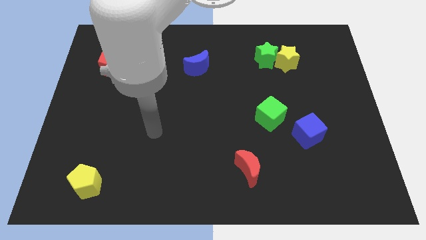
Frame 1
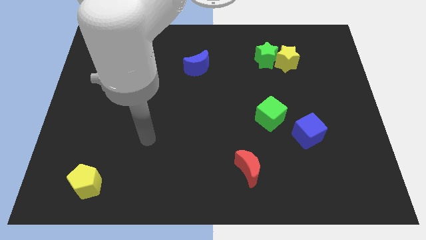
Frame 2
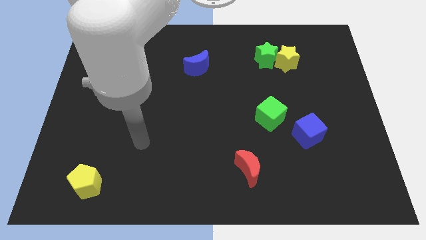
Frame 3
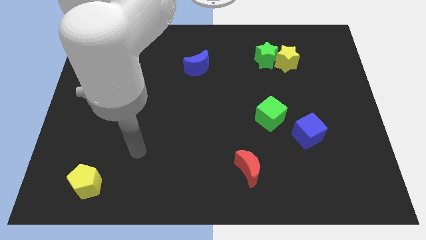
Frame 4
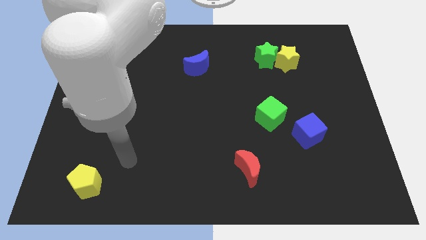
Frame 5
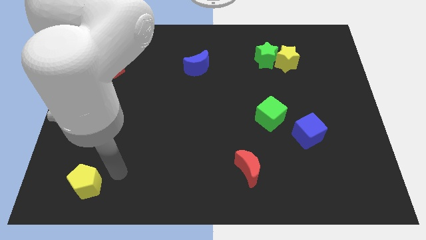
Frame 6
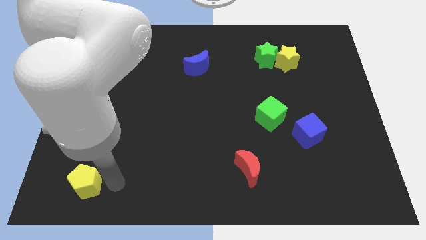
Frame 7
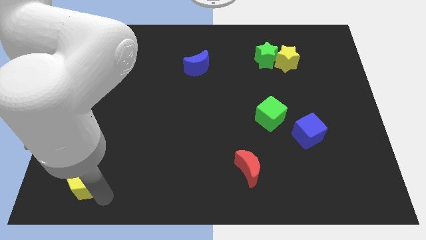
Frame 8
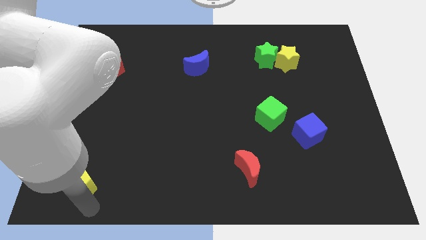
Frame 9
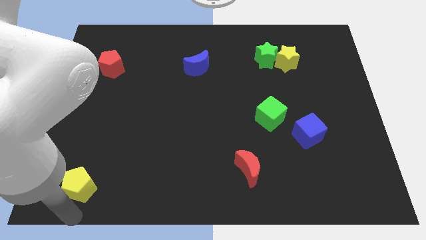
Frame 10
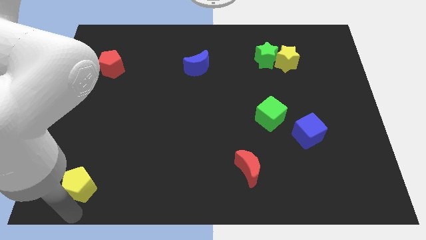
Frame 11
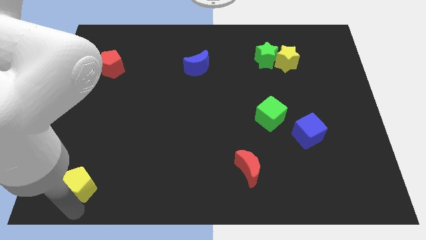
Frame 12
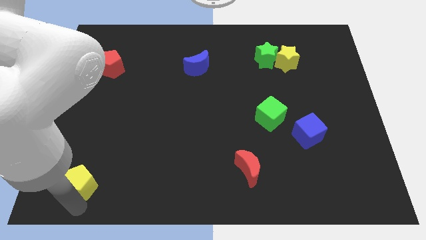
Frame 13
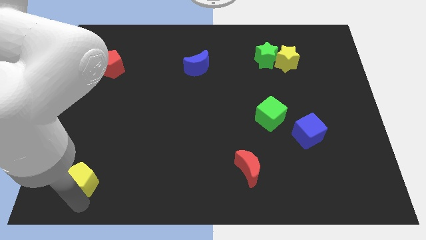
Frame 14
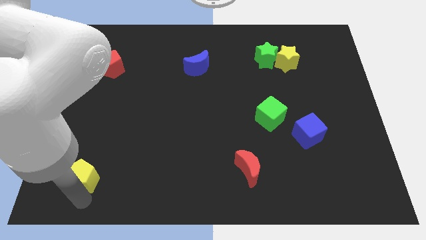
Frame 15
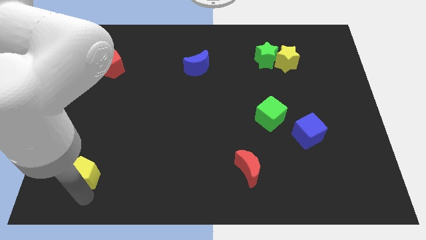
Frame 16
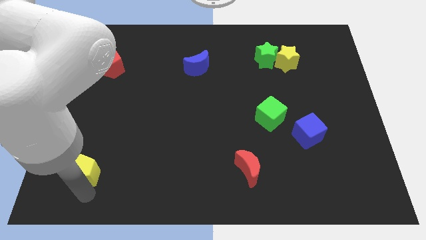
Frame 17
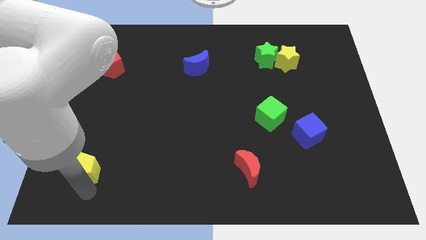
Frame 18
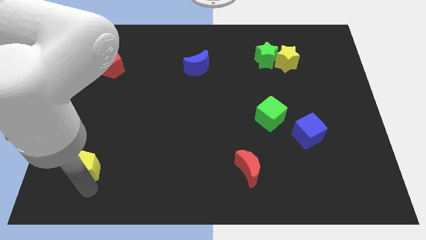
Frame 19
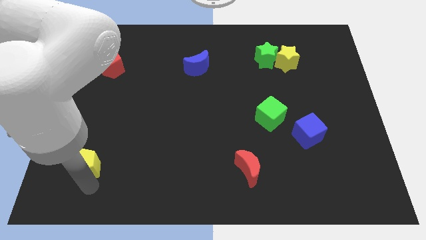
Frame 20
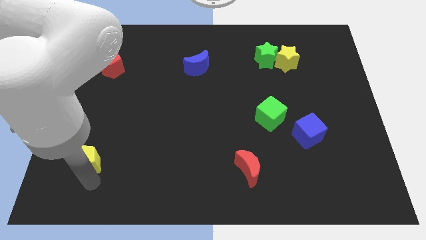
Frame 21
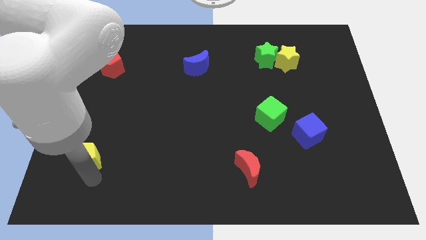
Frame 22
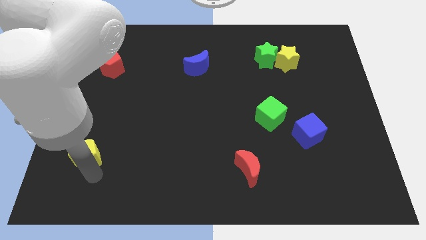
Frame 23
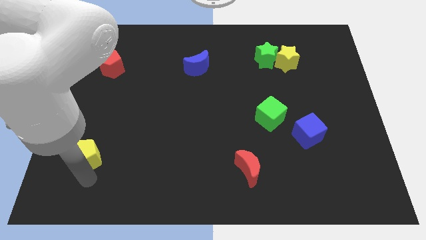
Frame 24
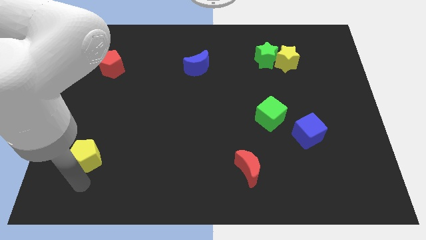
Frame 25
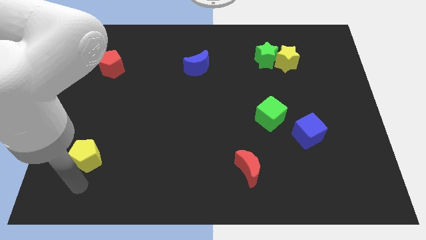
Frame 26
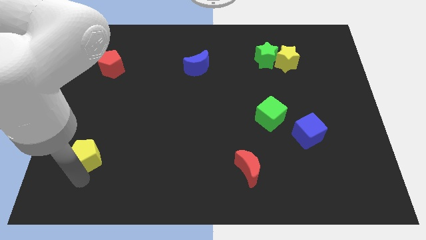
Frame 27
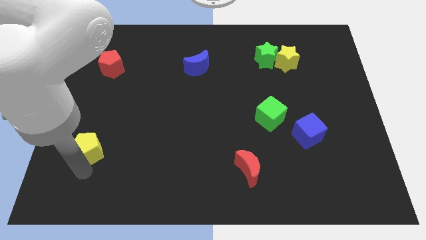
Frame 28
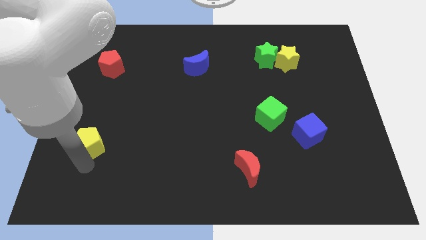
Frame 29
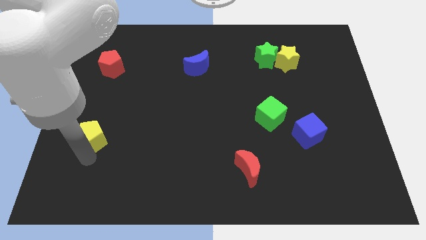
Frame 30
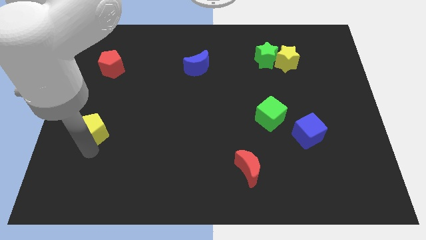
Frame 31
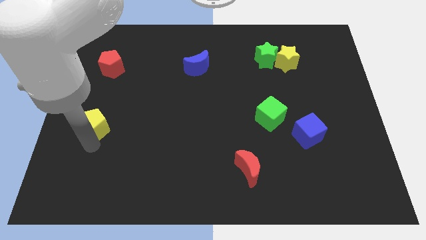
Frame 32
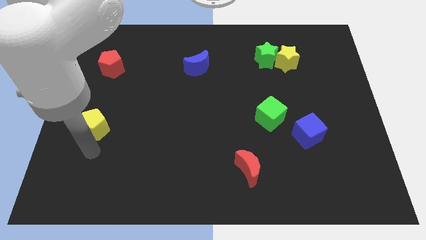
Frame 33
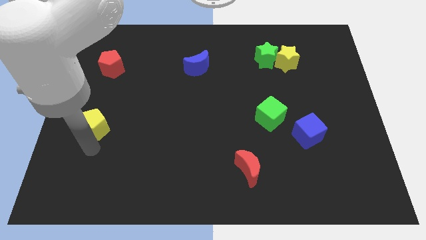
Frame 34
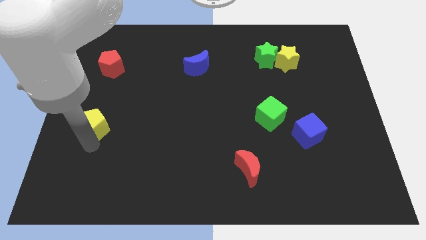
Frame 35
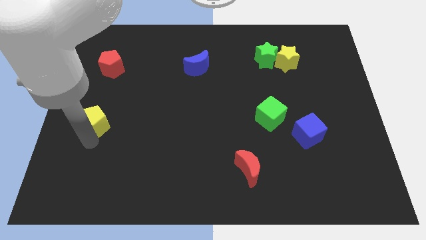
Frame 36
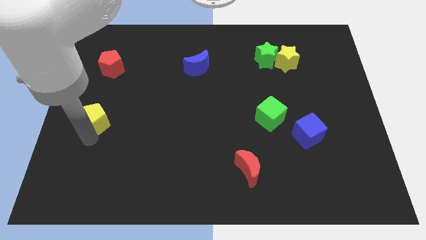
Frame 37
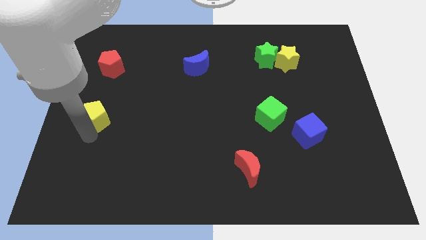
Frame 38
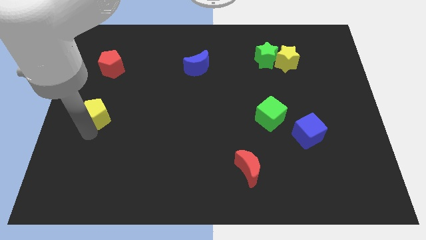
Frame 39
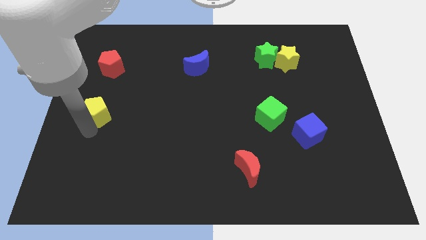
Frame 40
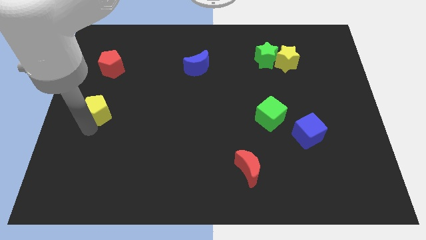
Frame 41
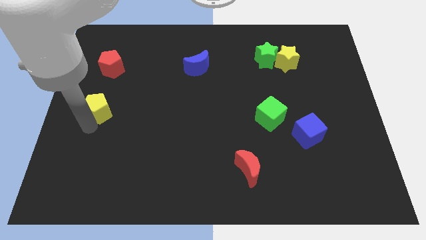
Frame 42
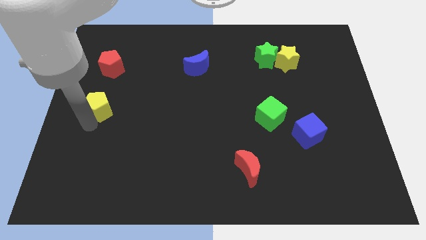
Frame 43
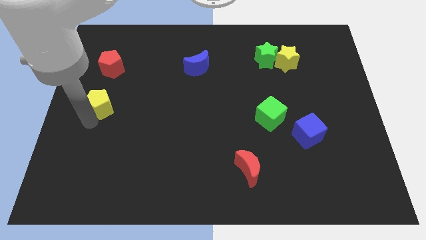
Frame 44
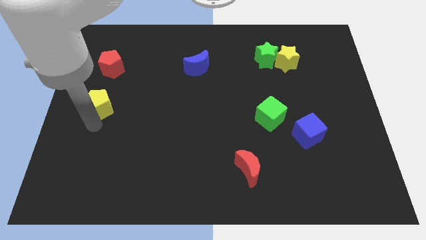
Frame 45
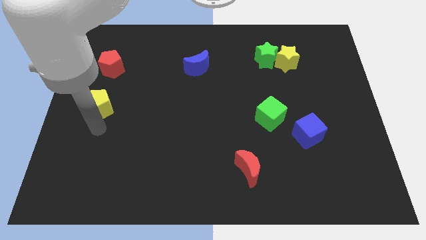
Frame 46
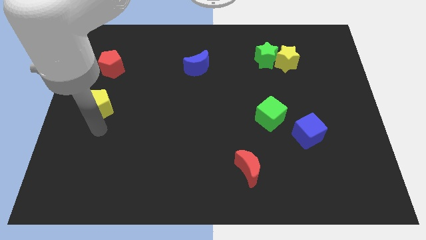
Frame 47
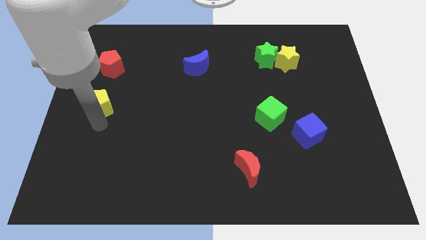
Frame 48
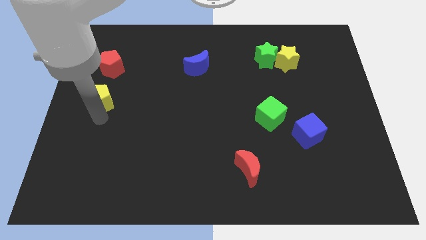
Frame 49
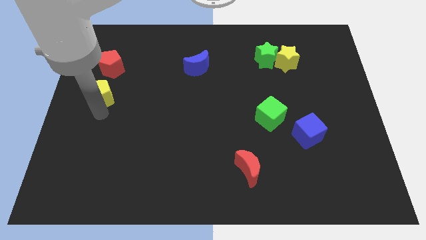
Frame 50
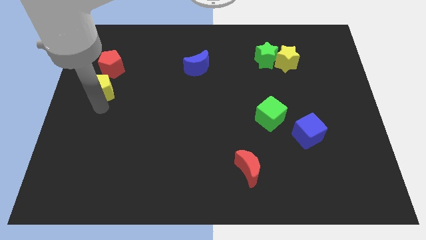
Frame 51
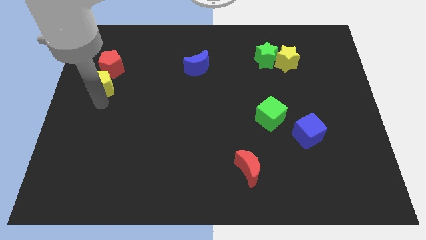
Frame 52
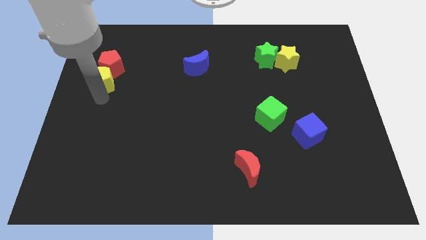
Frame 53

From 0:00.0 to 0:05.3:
push the yellow pentagon to the red pentagon

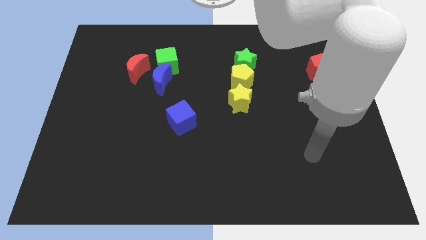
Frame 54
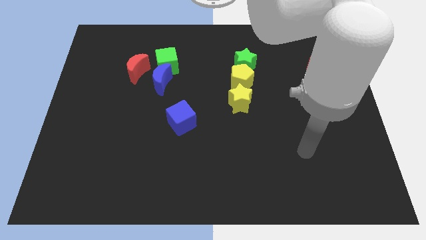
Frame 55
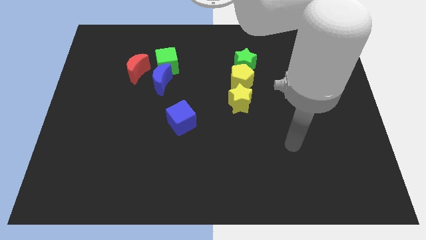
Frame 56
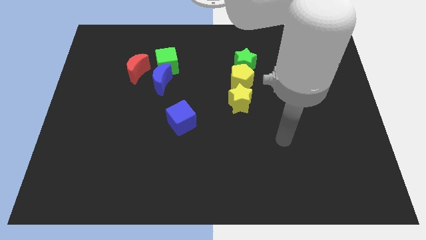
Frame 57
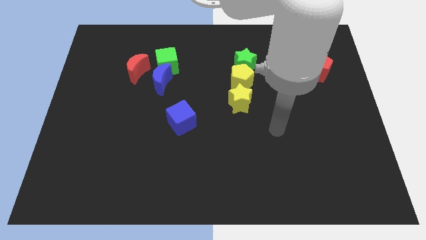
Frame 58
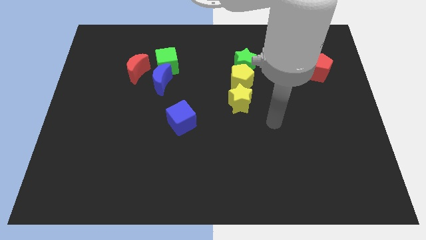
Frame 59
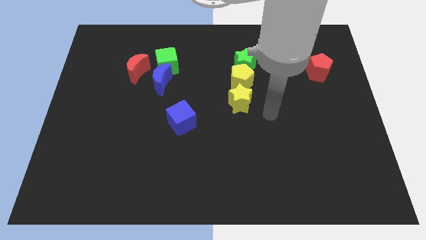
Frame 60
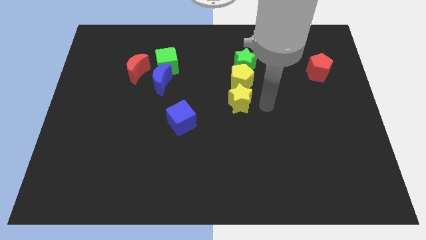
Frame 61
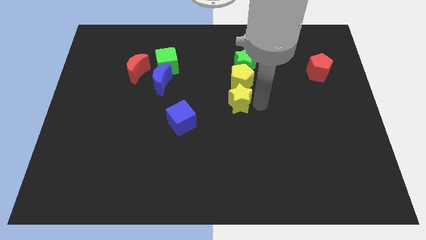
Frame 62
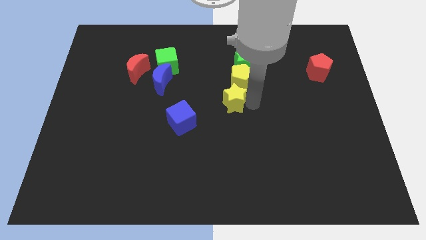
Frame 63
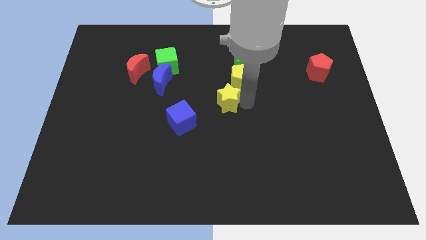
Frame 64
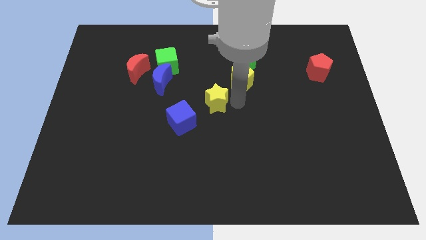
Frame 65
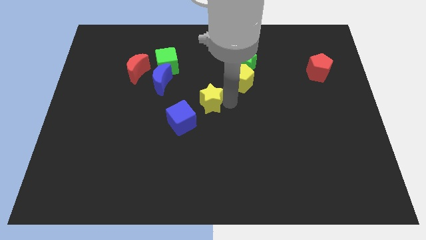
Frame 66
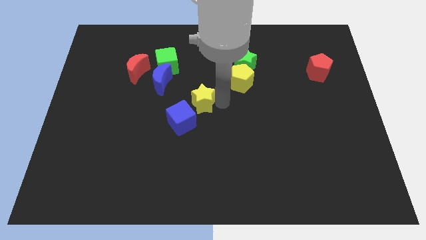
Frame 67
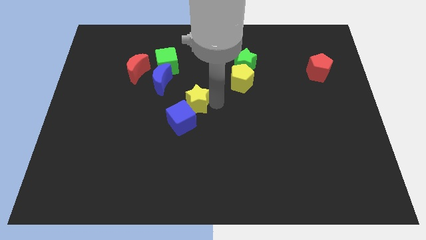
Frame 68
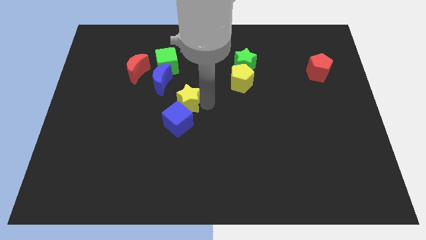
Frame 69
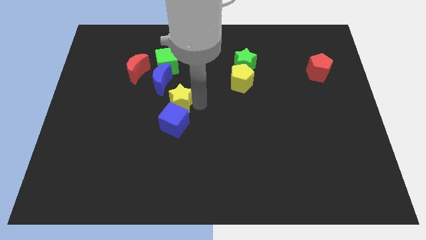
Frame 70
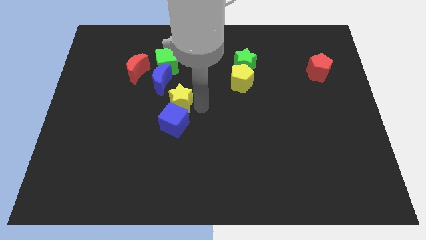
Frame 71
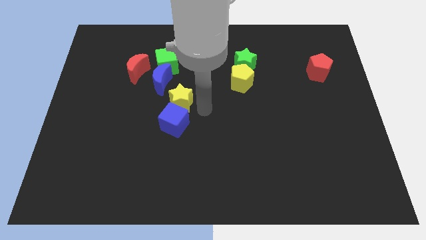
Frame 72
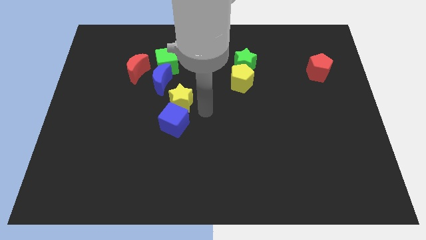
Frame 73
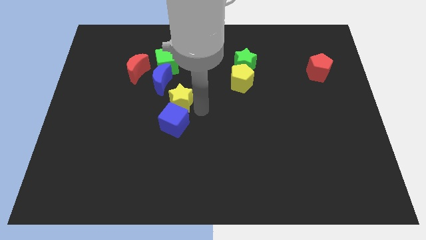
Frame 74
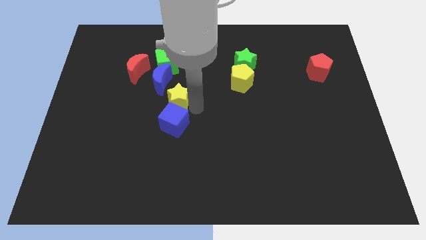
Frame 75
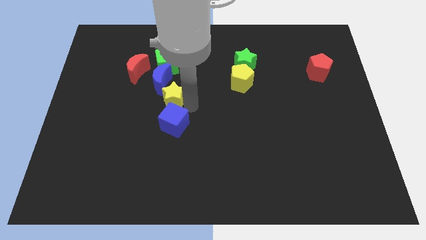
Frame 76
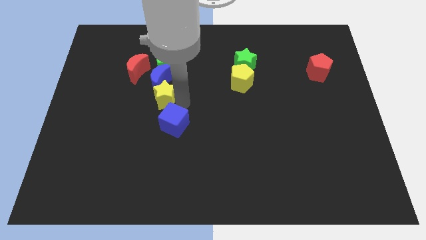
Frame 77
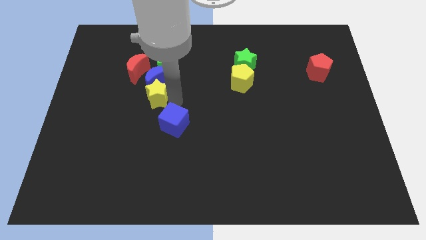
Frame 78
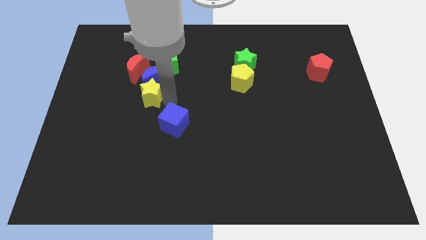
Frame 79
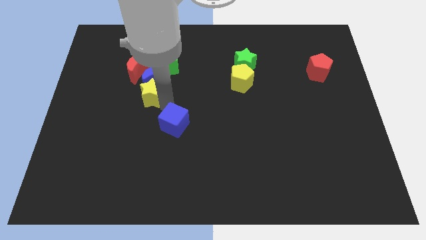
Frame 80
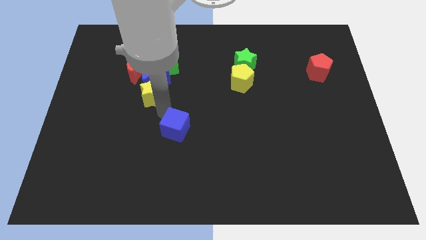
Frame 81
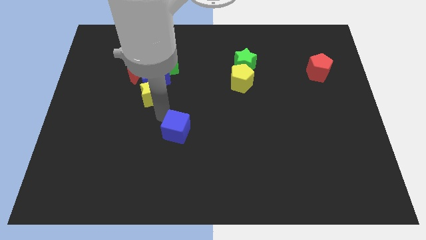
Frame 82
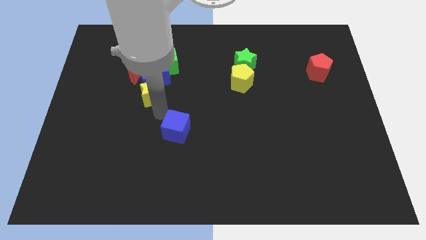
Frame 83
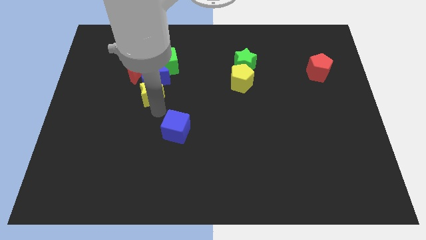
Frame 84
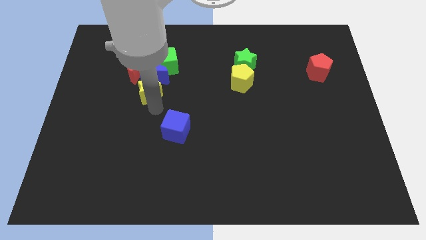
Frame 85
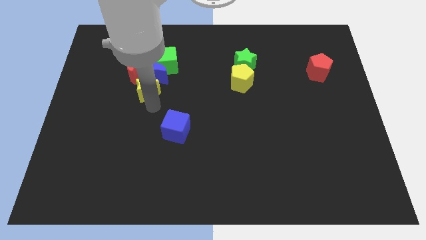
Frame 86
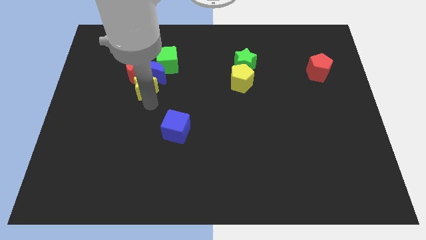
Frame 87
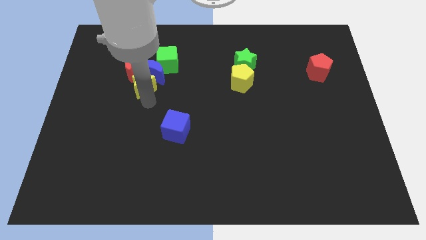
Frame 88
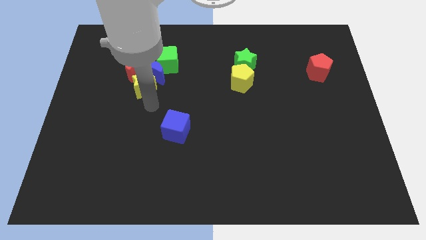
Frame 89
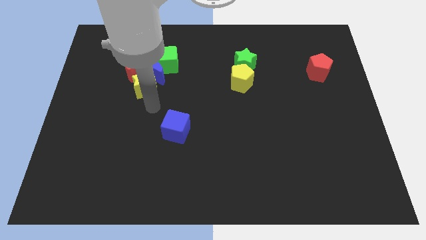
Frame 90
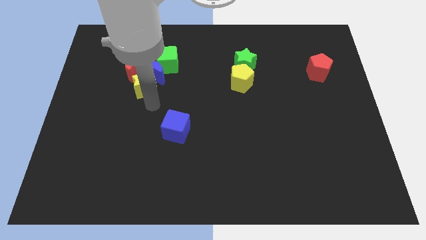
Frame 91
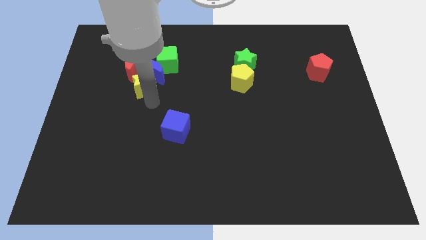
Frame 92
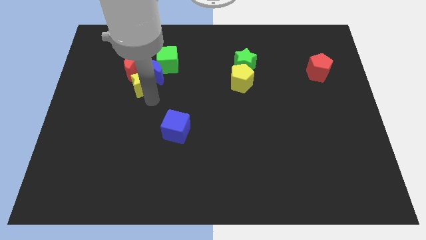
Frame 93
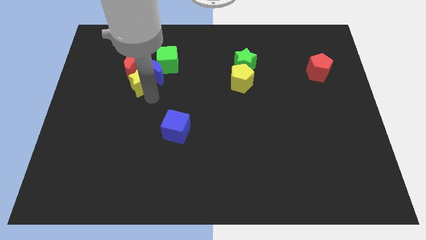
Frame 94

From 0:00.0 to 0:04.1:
slide the yellow star to the red moon
